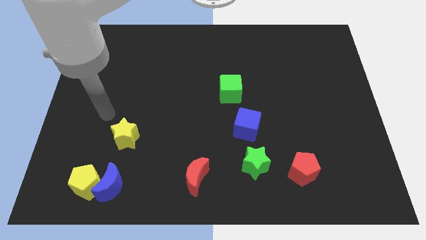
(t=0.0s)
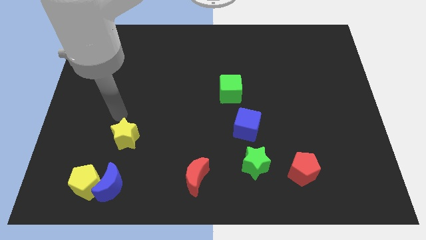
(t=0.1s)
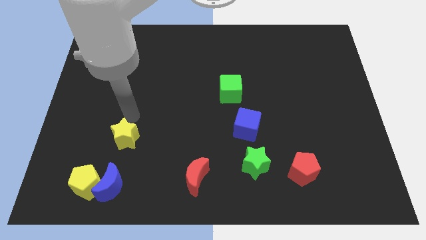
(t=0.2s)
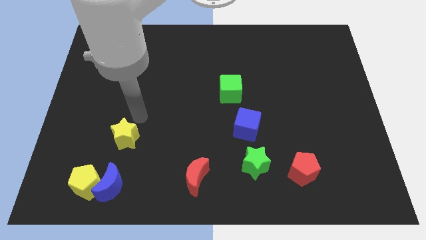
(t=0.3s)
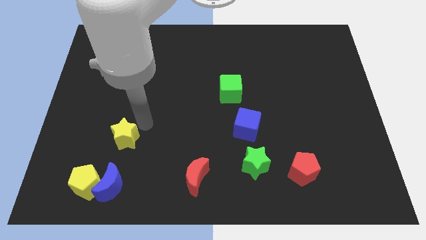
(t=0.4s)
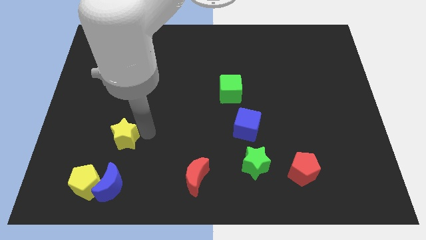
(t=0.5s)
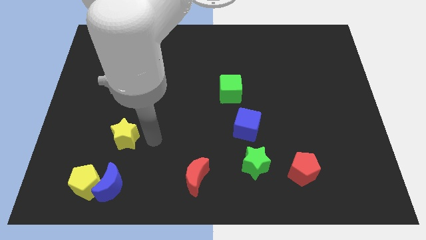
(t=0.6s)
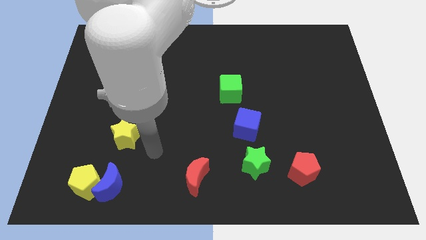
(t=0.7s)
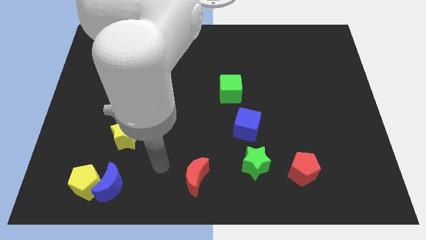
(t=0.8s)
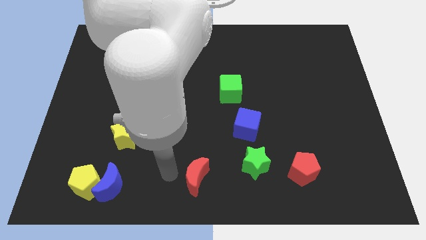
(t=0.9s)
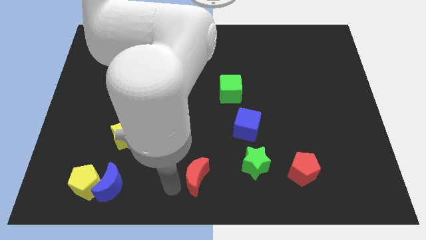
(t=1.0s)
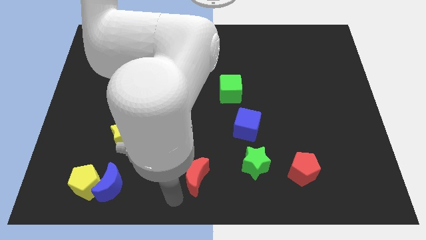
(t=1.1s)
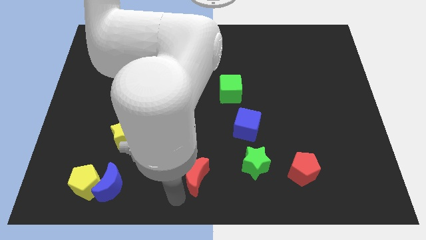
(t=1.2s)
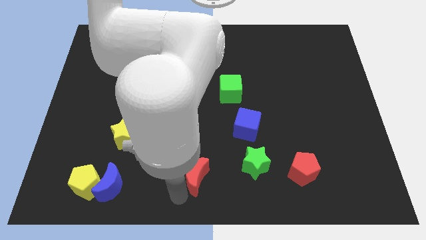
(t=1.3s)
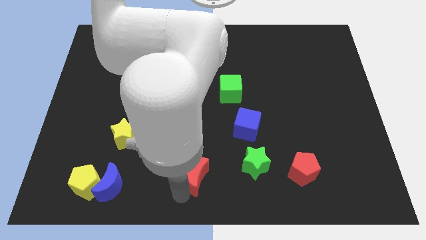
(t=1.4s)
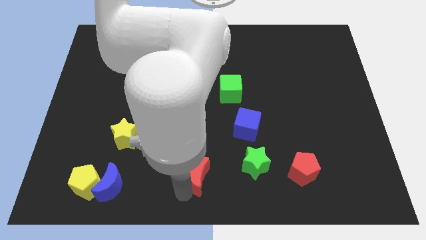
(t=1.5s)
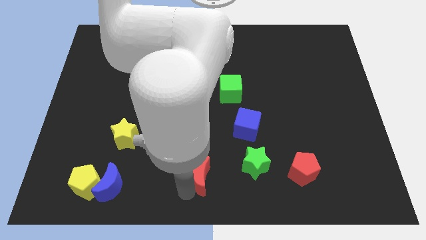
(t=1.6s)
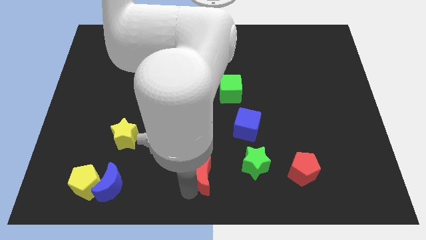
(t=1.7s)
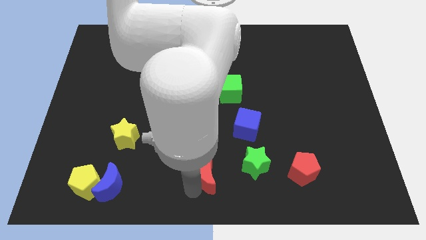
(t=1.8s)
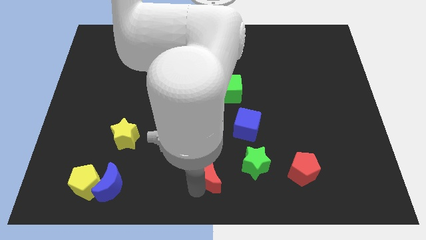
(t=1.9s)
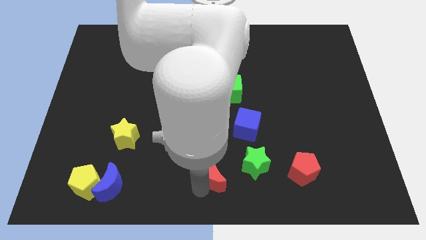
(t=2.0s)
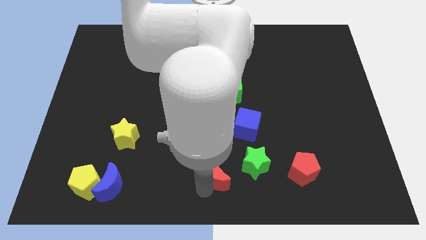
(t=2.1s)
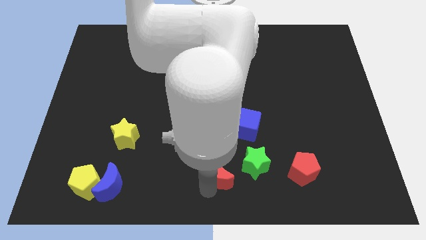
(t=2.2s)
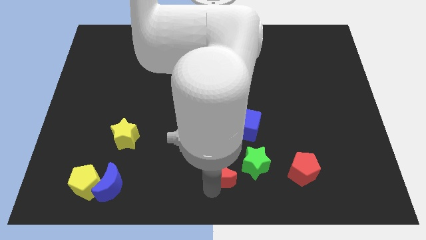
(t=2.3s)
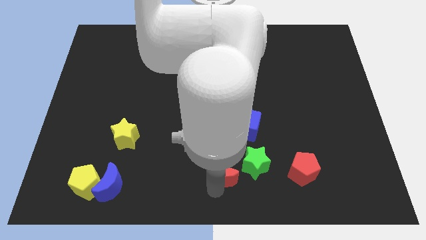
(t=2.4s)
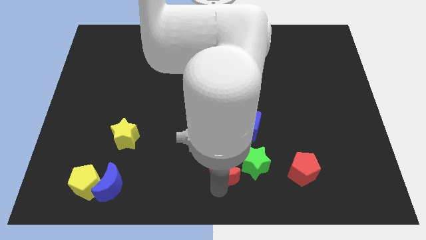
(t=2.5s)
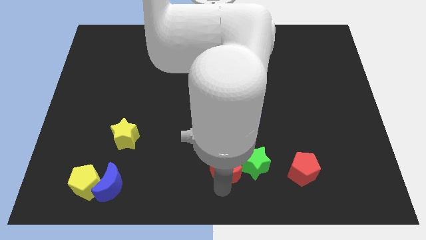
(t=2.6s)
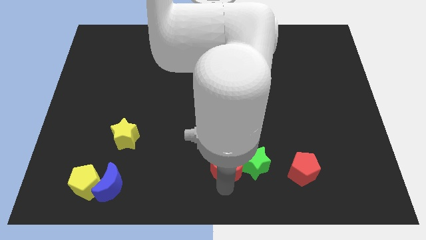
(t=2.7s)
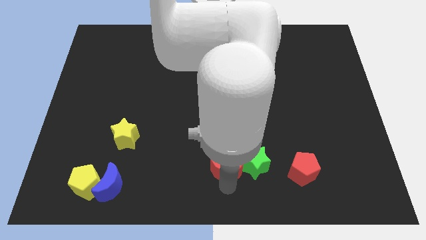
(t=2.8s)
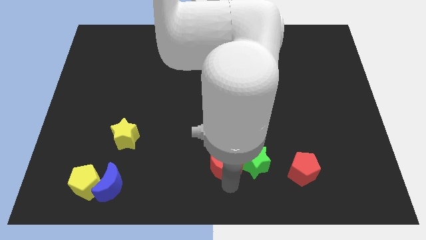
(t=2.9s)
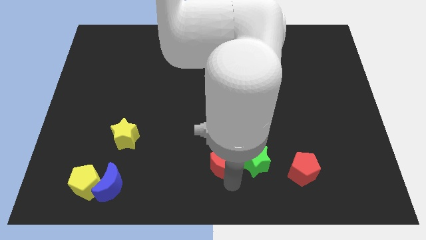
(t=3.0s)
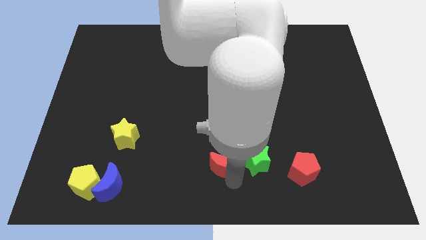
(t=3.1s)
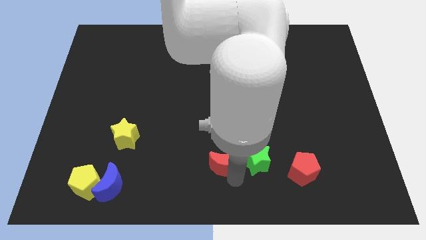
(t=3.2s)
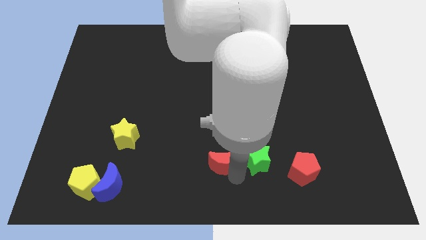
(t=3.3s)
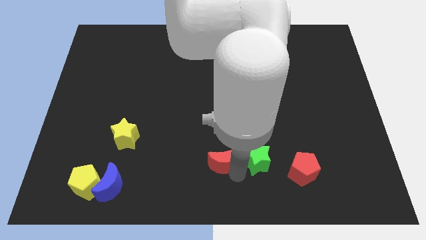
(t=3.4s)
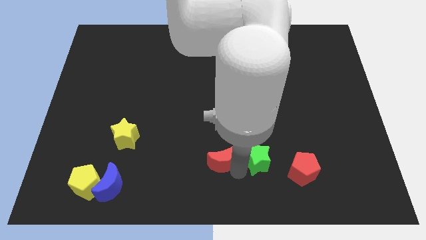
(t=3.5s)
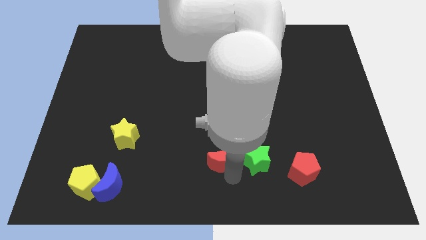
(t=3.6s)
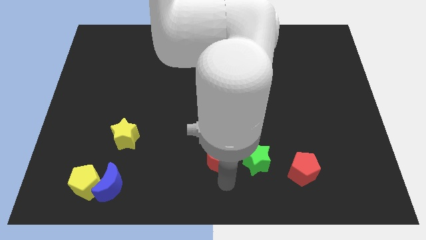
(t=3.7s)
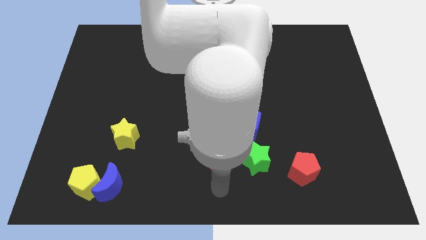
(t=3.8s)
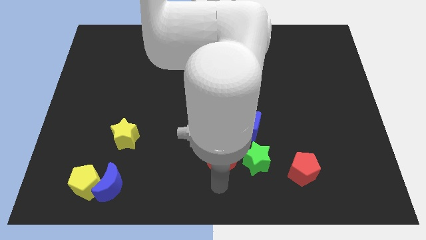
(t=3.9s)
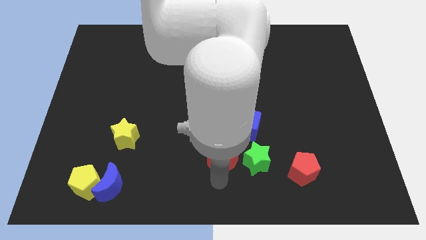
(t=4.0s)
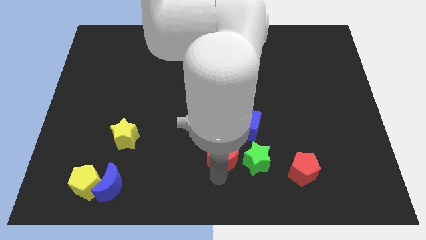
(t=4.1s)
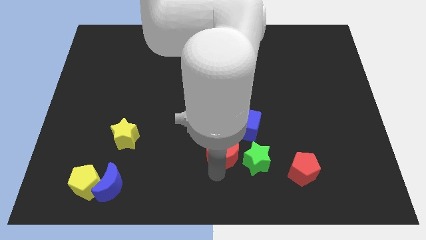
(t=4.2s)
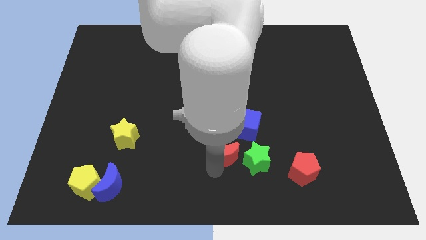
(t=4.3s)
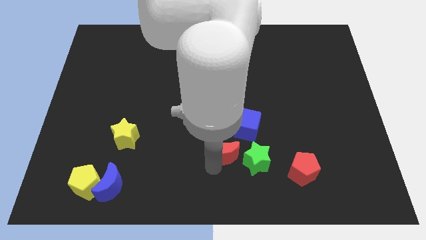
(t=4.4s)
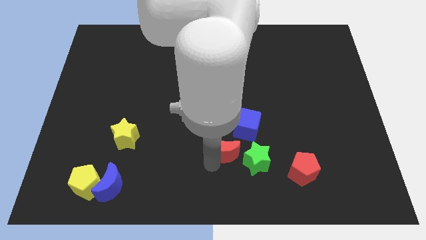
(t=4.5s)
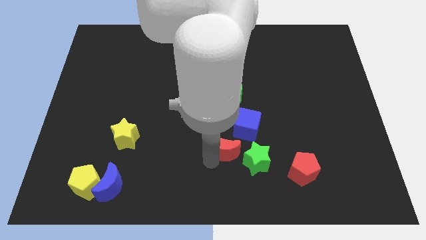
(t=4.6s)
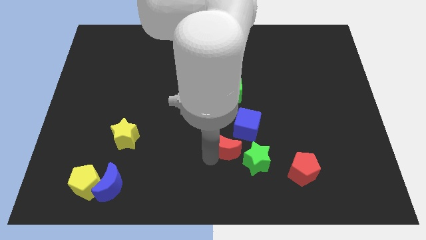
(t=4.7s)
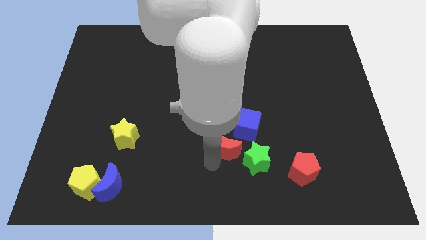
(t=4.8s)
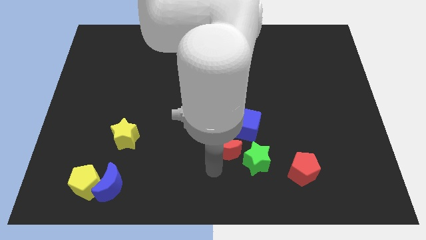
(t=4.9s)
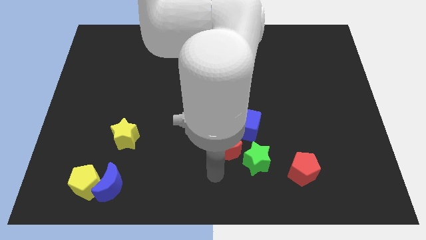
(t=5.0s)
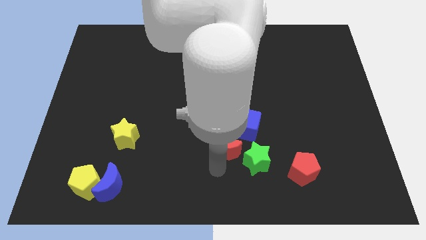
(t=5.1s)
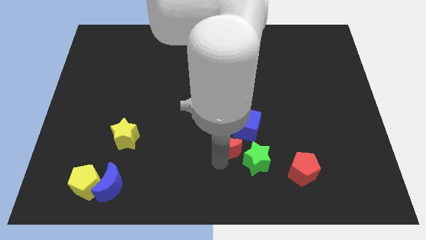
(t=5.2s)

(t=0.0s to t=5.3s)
push the red moon below the green cube

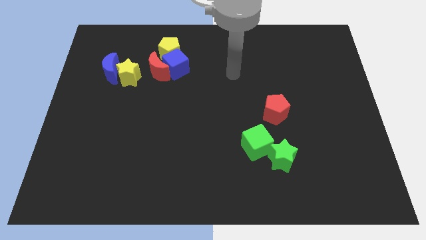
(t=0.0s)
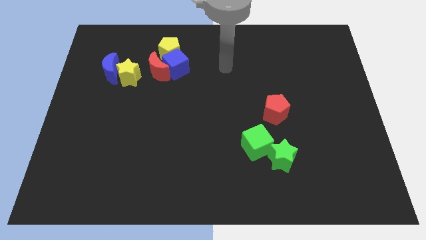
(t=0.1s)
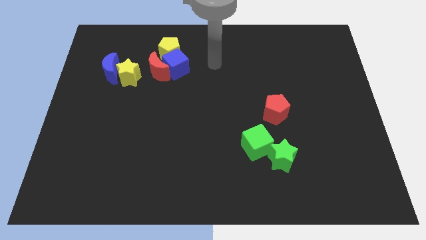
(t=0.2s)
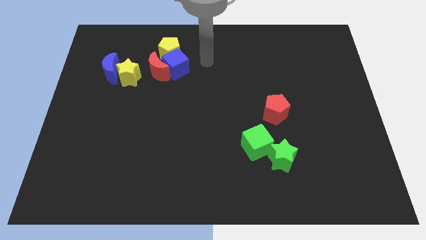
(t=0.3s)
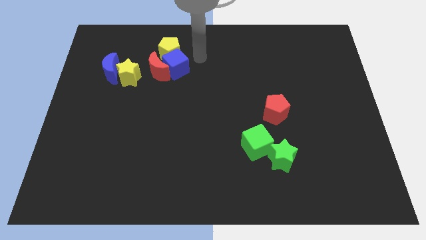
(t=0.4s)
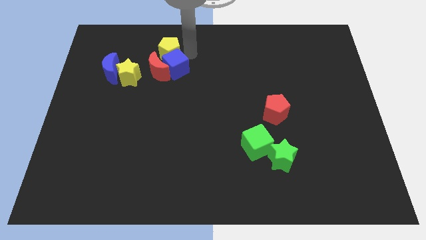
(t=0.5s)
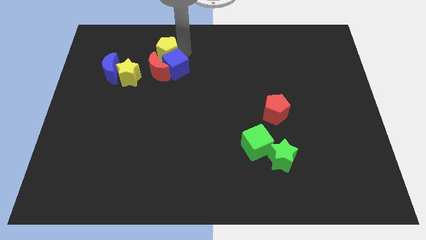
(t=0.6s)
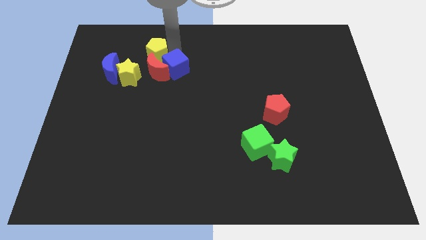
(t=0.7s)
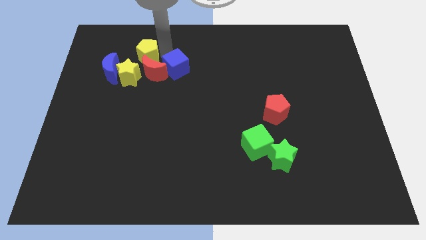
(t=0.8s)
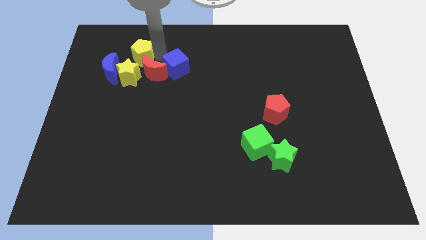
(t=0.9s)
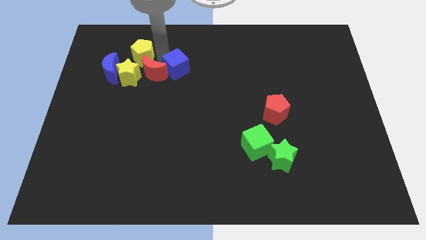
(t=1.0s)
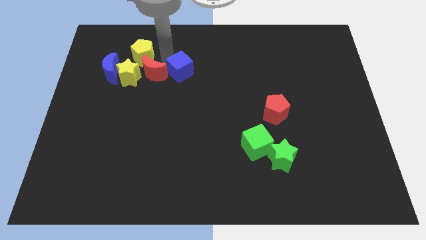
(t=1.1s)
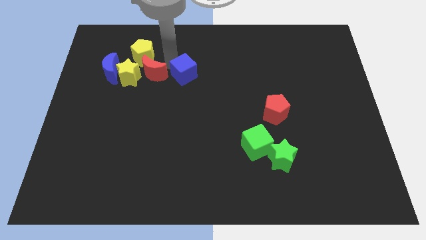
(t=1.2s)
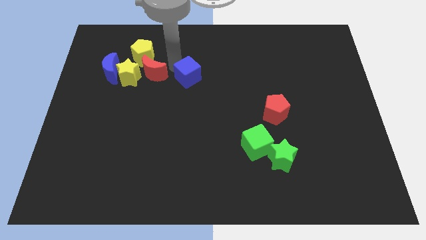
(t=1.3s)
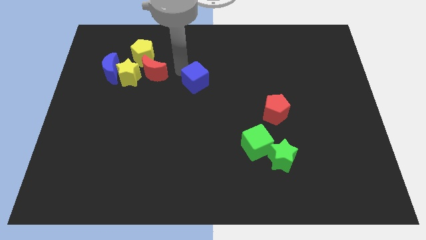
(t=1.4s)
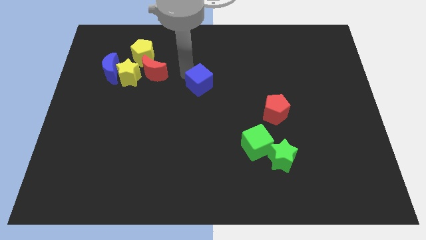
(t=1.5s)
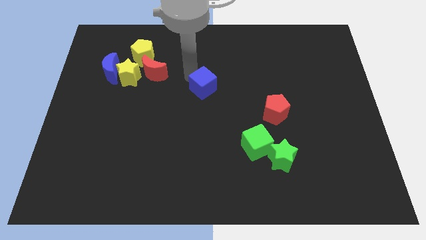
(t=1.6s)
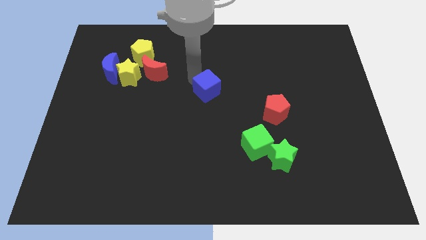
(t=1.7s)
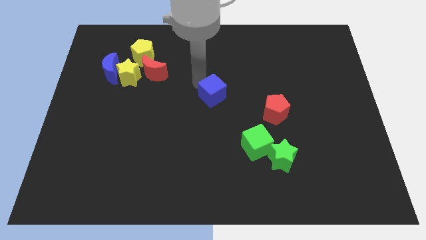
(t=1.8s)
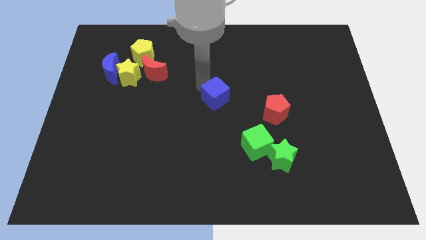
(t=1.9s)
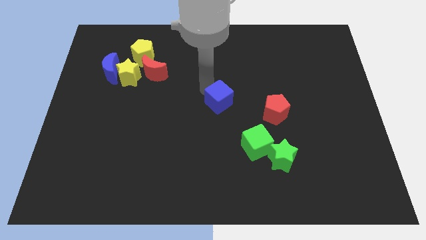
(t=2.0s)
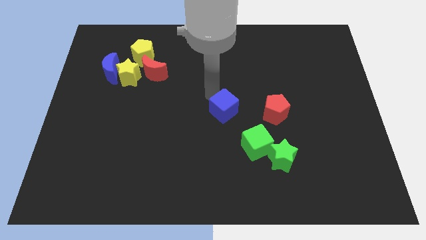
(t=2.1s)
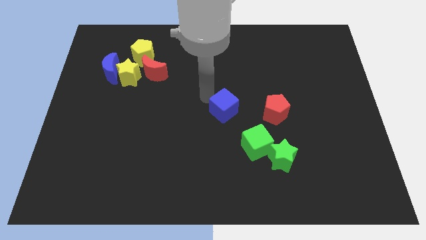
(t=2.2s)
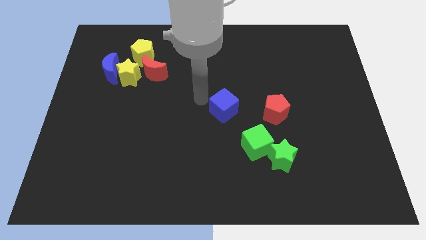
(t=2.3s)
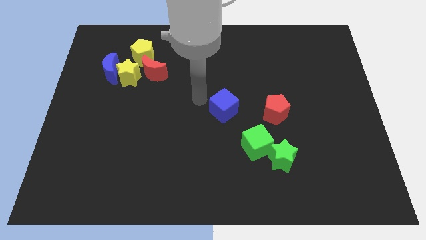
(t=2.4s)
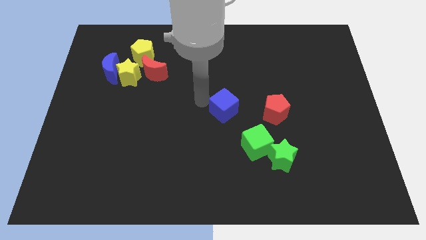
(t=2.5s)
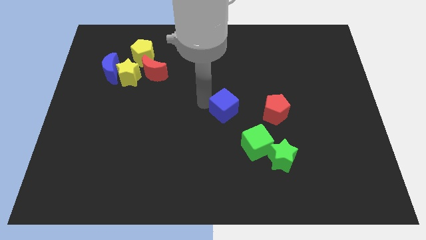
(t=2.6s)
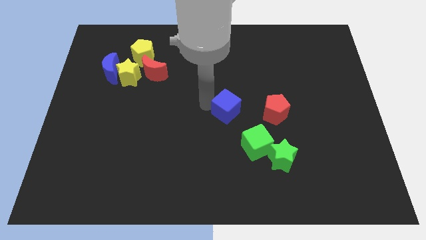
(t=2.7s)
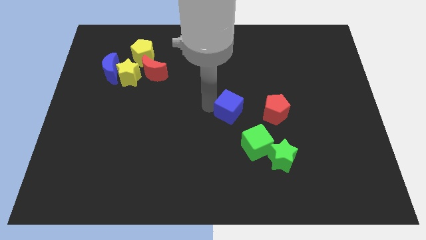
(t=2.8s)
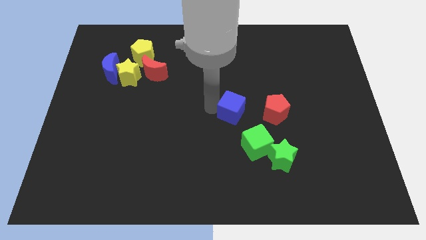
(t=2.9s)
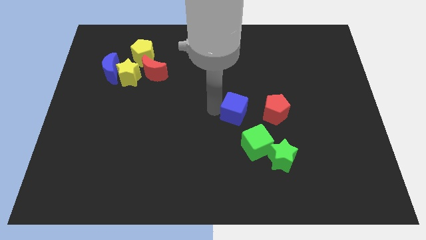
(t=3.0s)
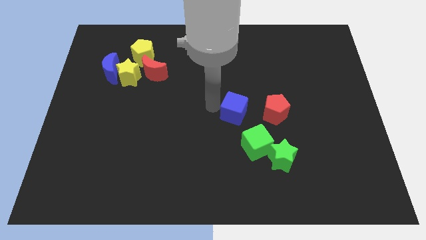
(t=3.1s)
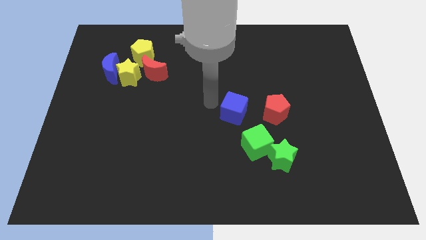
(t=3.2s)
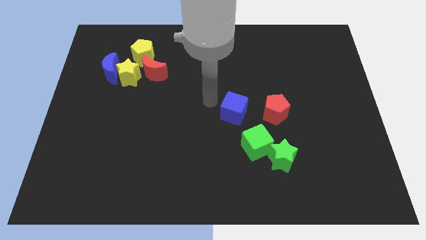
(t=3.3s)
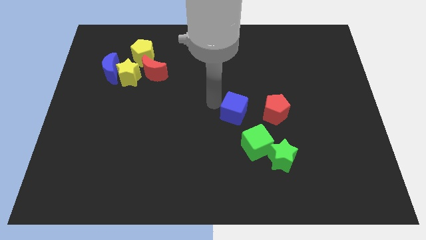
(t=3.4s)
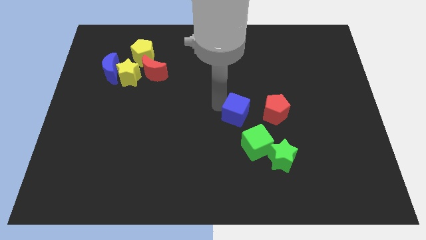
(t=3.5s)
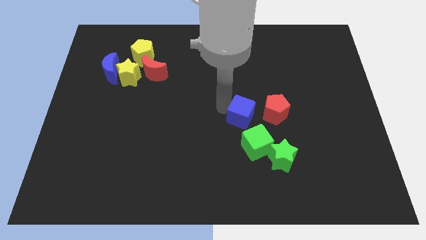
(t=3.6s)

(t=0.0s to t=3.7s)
put the blue cube diagonally down and to the left of the red pentagon
